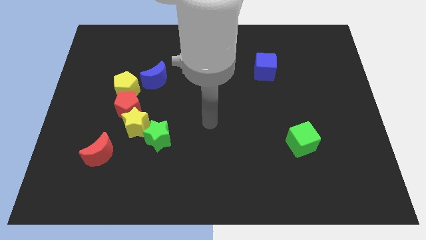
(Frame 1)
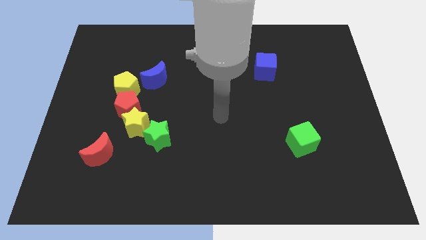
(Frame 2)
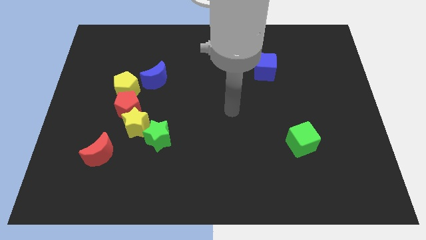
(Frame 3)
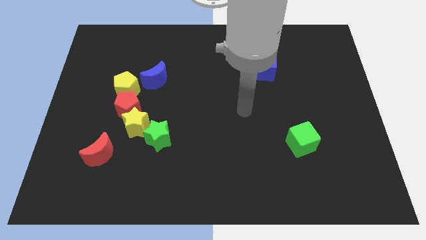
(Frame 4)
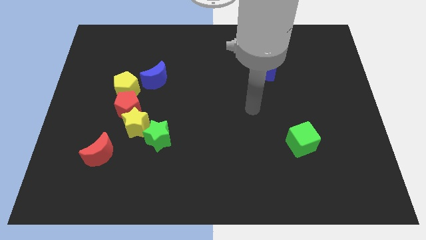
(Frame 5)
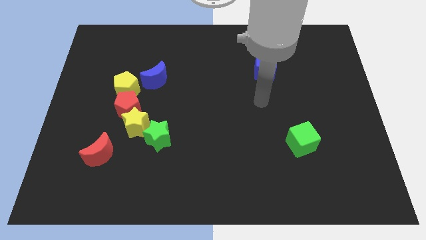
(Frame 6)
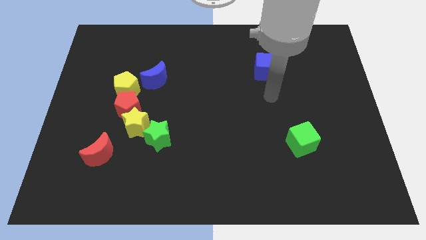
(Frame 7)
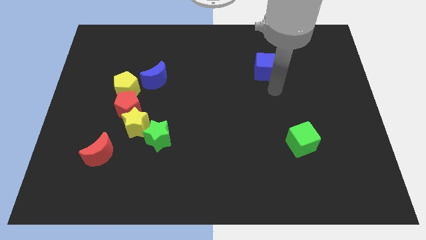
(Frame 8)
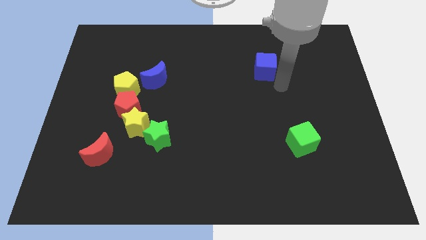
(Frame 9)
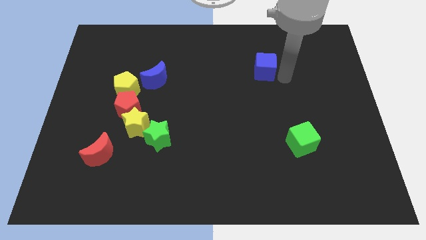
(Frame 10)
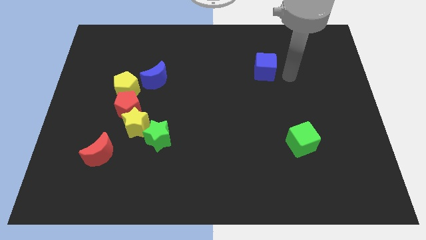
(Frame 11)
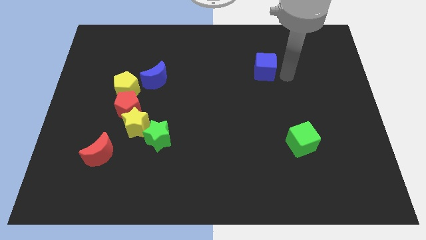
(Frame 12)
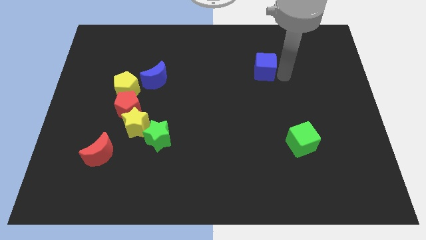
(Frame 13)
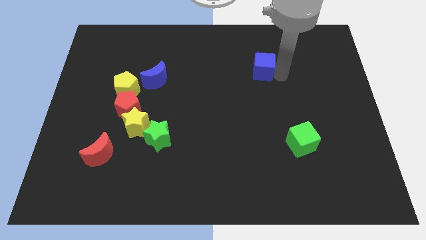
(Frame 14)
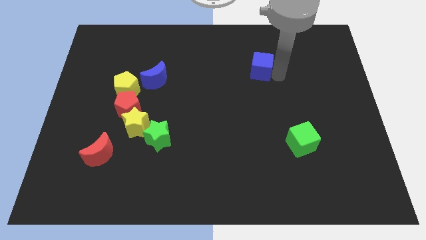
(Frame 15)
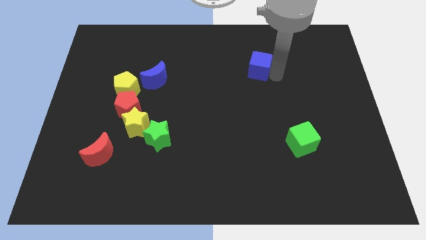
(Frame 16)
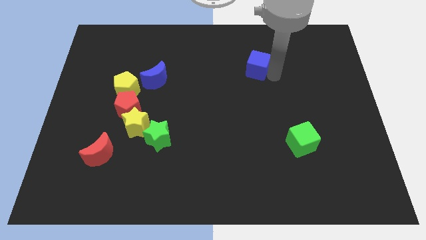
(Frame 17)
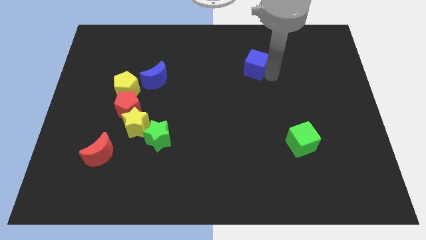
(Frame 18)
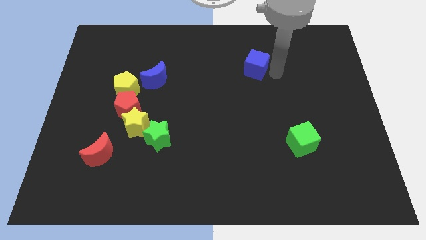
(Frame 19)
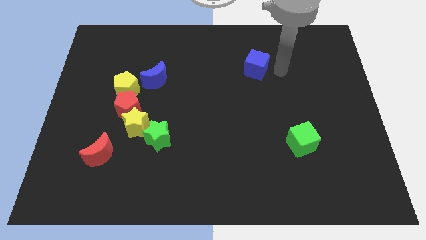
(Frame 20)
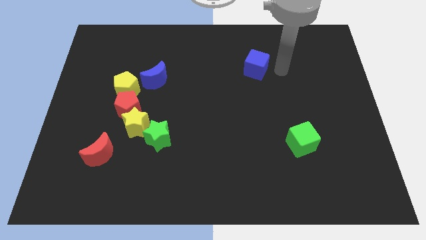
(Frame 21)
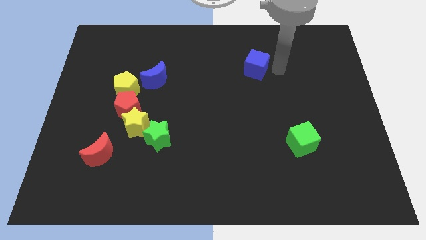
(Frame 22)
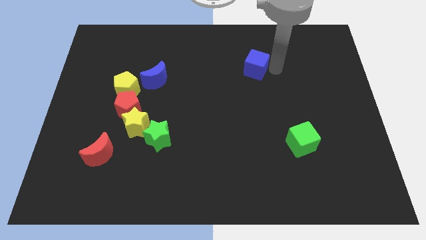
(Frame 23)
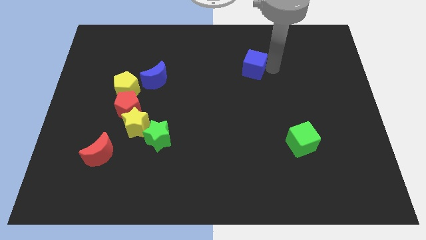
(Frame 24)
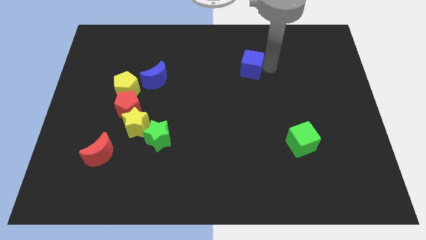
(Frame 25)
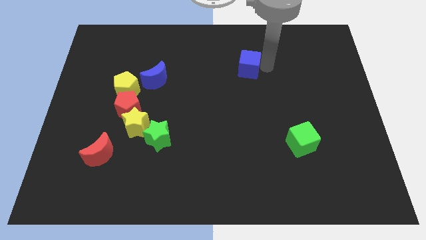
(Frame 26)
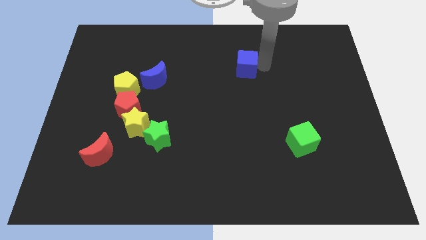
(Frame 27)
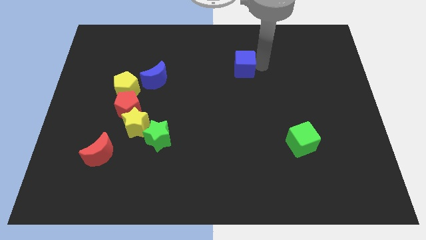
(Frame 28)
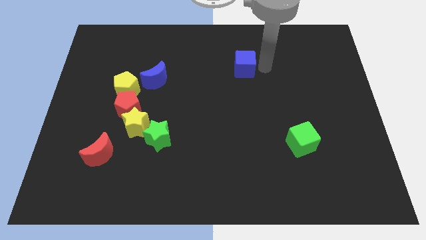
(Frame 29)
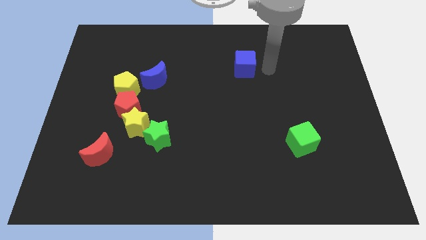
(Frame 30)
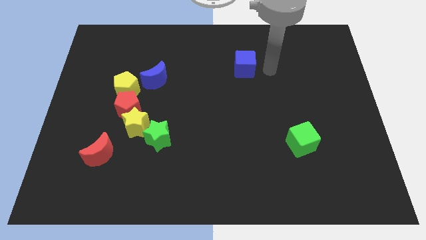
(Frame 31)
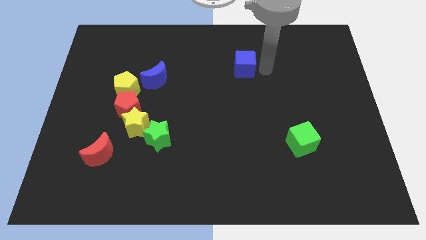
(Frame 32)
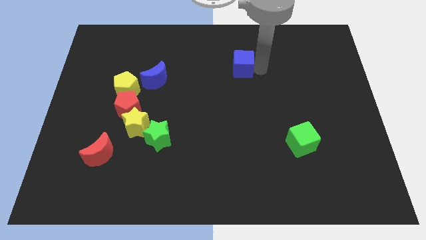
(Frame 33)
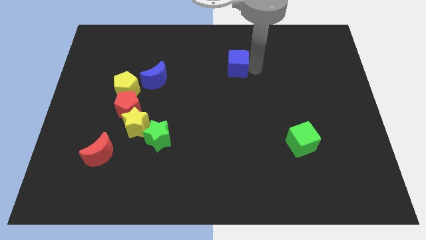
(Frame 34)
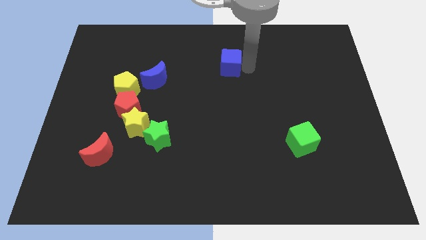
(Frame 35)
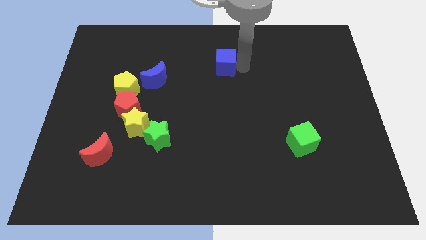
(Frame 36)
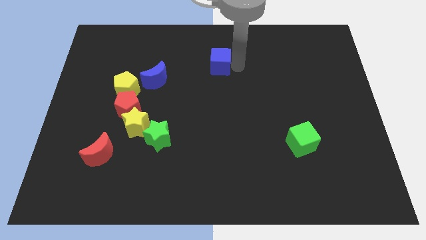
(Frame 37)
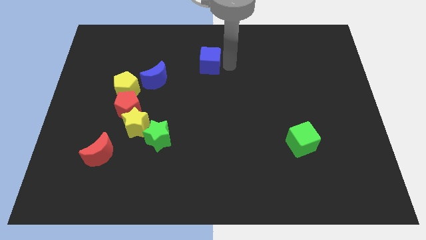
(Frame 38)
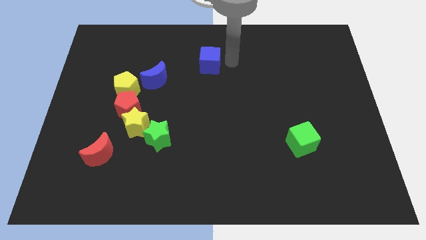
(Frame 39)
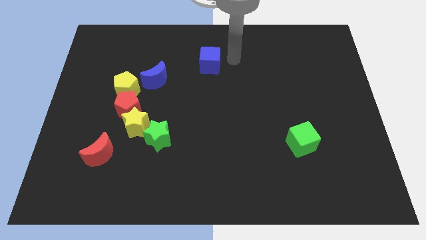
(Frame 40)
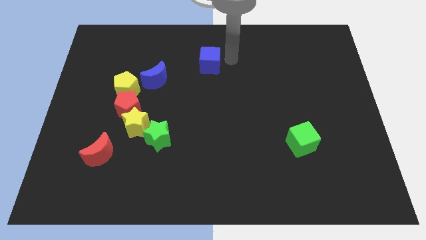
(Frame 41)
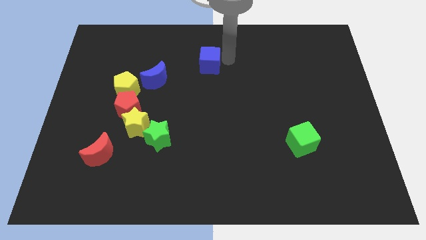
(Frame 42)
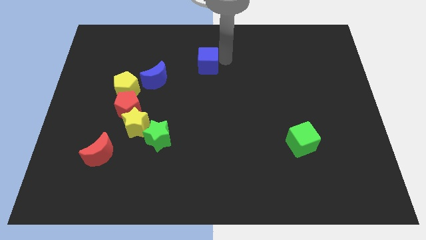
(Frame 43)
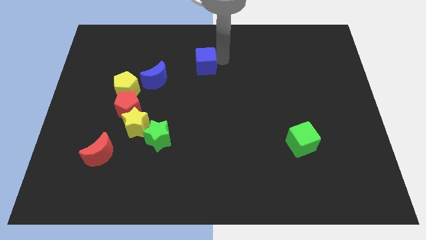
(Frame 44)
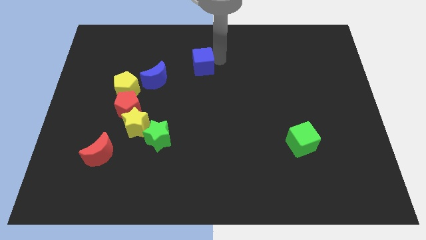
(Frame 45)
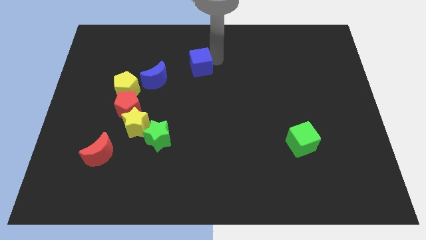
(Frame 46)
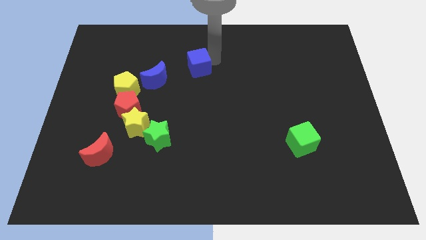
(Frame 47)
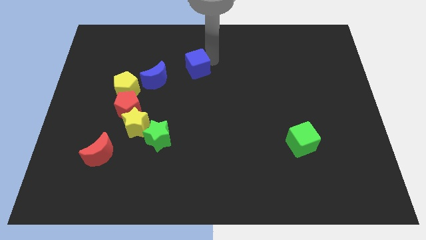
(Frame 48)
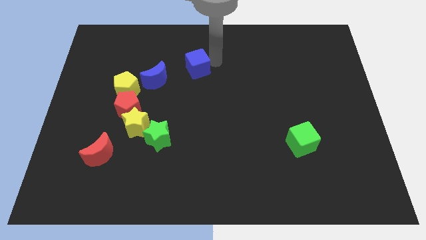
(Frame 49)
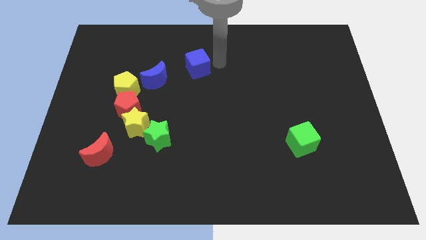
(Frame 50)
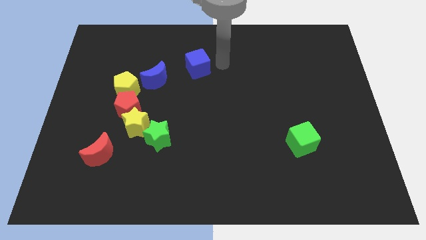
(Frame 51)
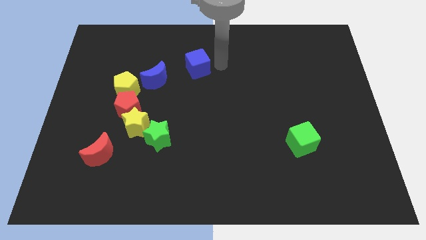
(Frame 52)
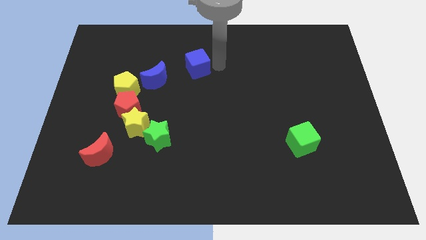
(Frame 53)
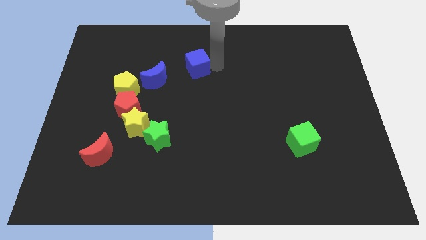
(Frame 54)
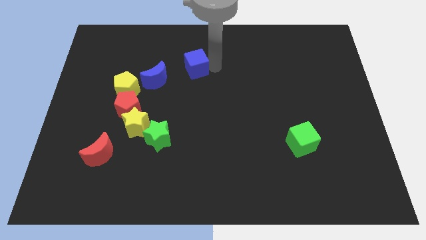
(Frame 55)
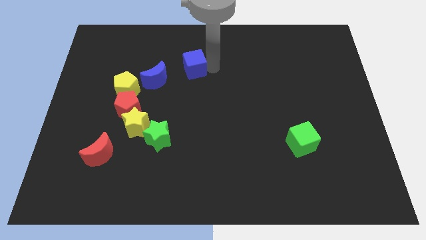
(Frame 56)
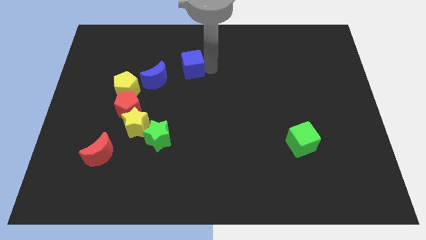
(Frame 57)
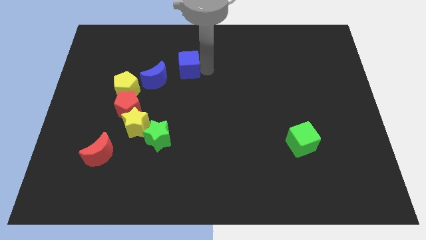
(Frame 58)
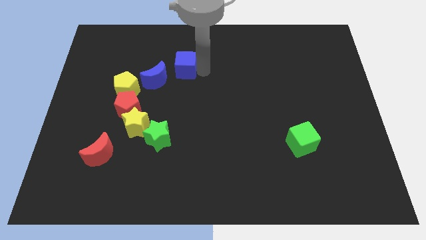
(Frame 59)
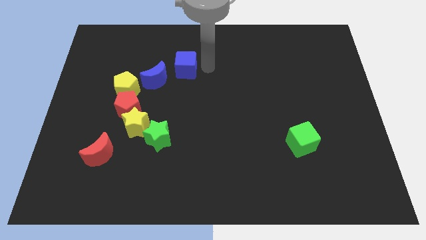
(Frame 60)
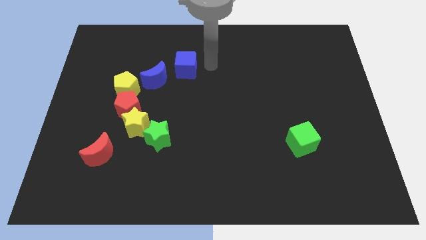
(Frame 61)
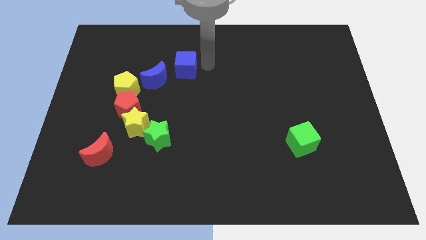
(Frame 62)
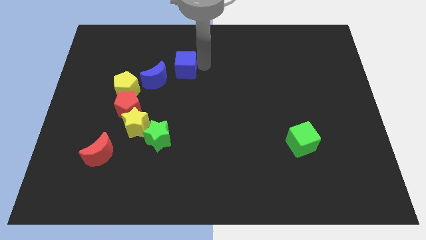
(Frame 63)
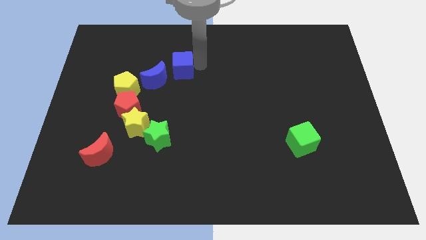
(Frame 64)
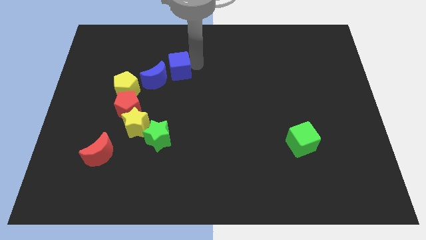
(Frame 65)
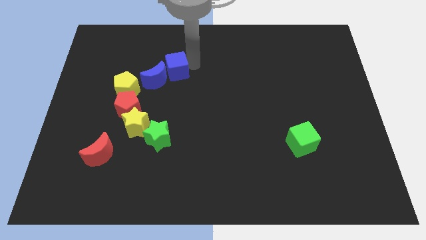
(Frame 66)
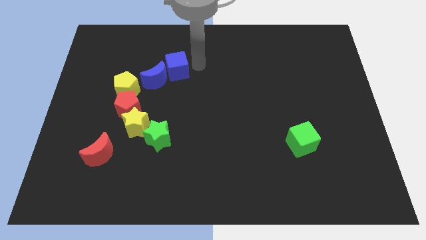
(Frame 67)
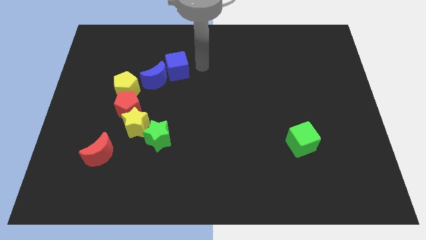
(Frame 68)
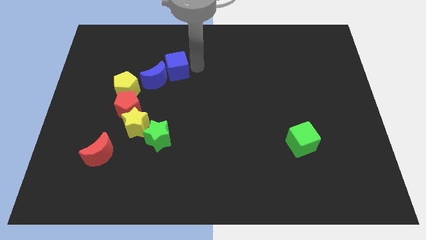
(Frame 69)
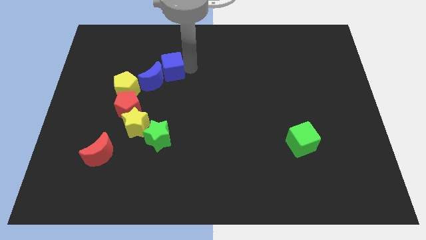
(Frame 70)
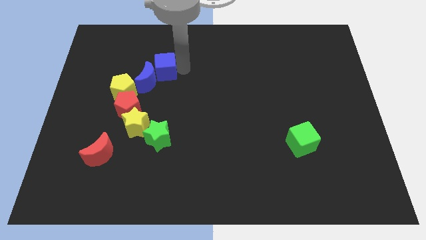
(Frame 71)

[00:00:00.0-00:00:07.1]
put the blue cube to the top right of the yellow pentagon

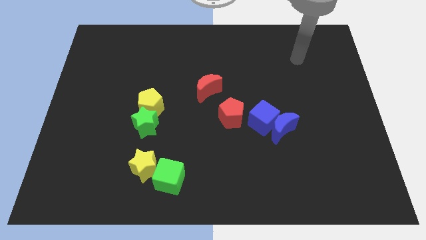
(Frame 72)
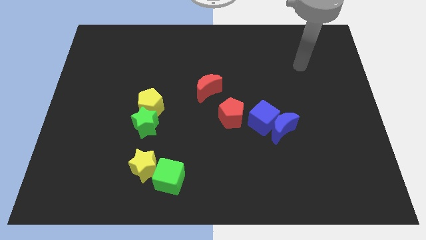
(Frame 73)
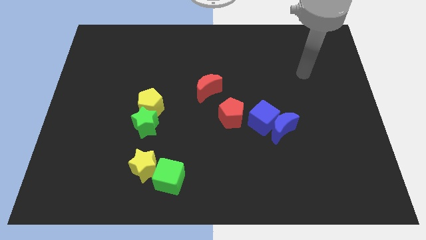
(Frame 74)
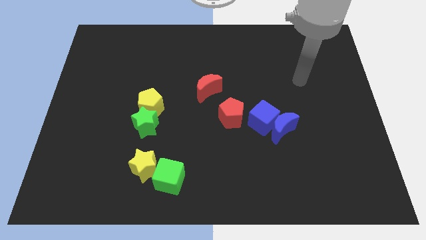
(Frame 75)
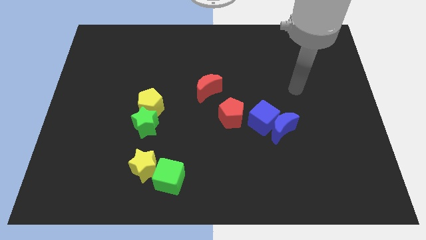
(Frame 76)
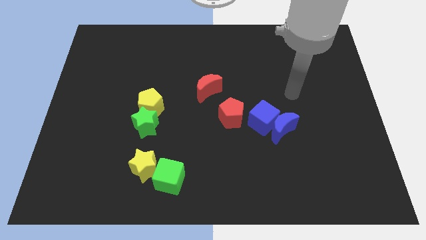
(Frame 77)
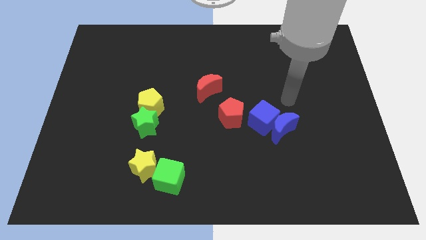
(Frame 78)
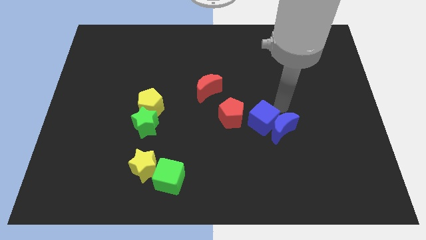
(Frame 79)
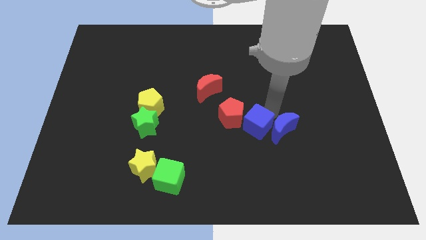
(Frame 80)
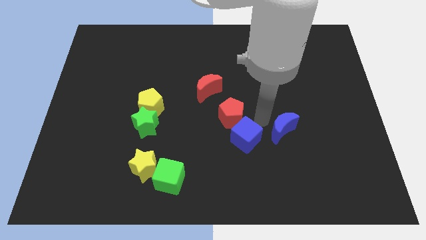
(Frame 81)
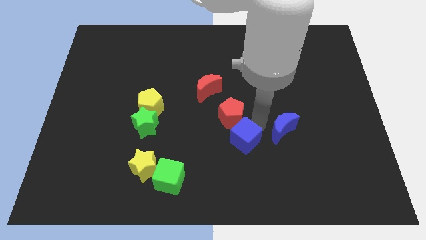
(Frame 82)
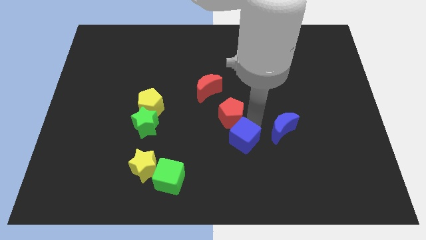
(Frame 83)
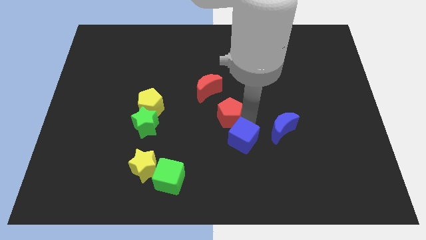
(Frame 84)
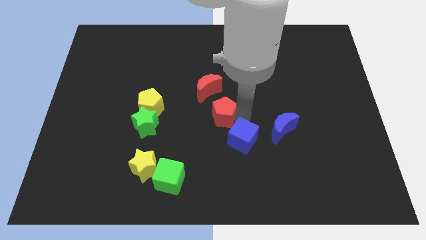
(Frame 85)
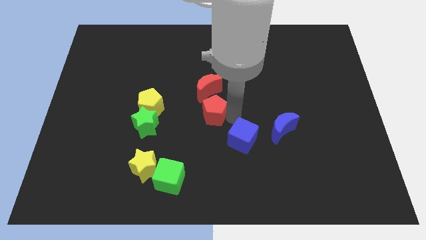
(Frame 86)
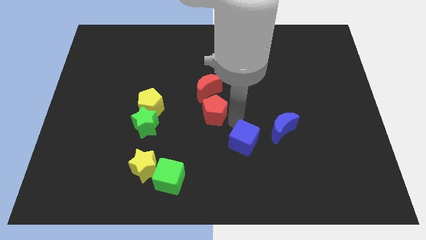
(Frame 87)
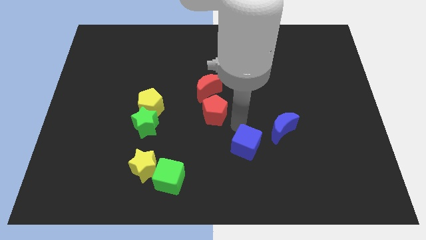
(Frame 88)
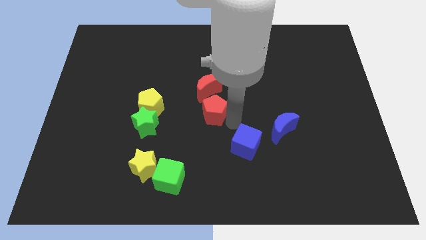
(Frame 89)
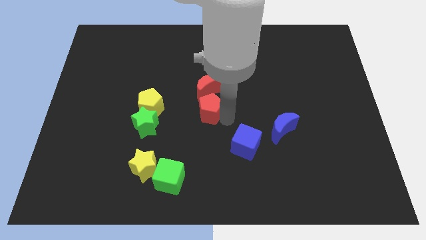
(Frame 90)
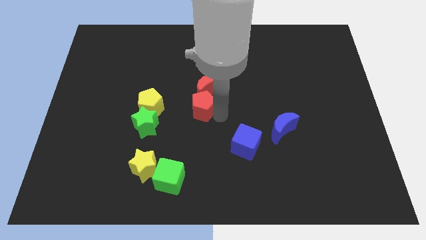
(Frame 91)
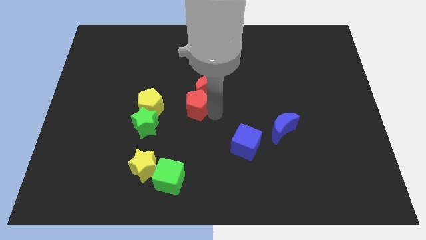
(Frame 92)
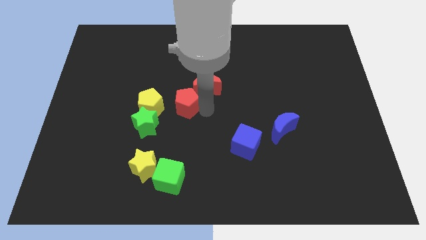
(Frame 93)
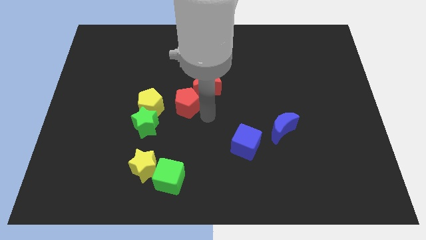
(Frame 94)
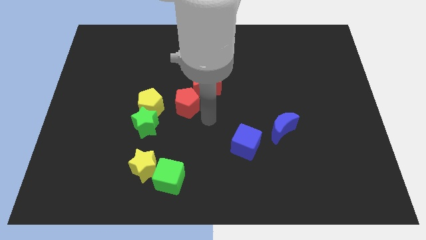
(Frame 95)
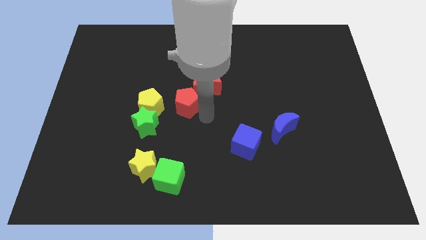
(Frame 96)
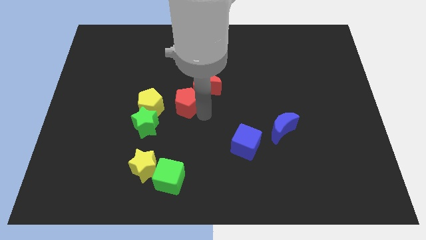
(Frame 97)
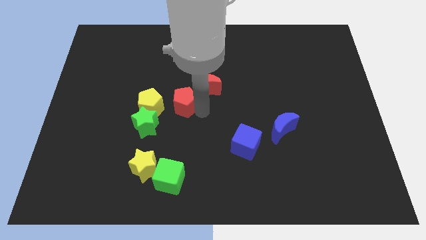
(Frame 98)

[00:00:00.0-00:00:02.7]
put the red pentagon to the left of the red moon
